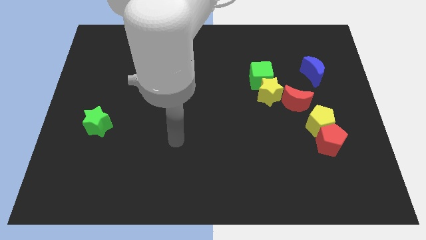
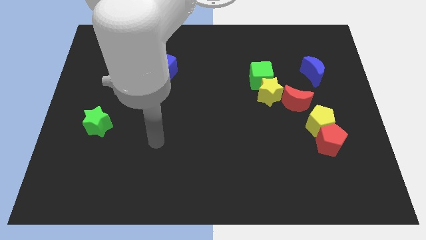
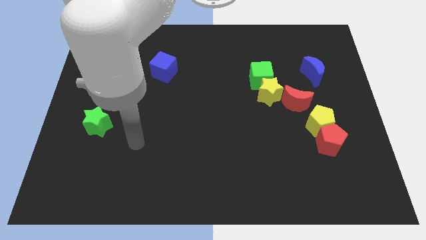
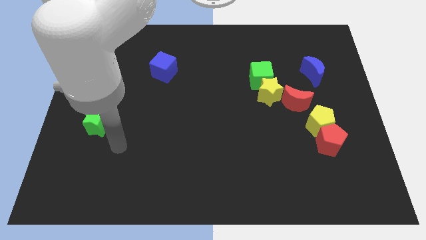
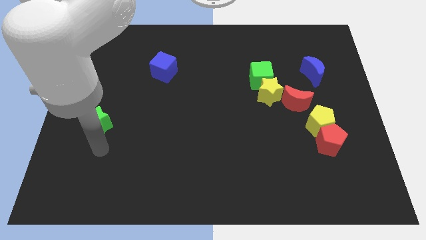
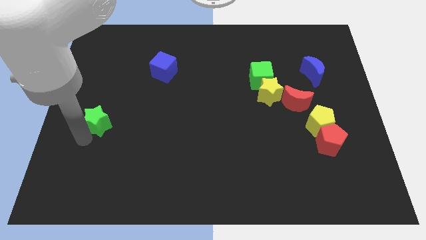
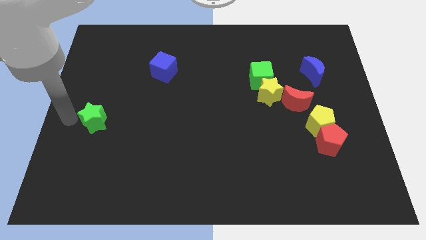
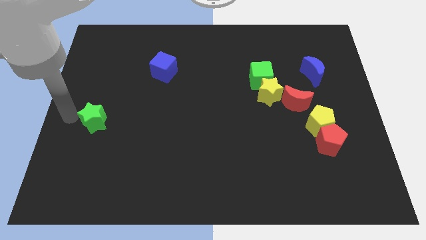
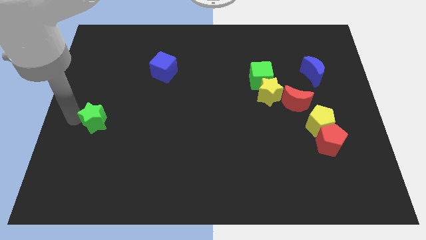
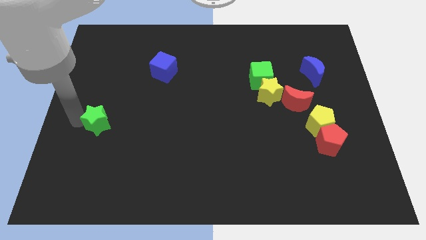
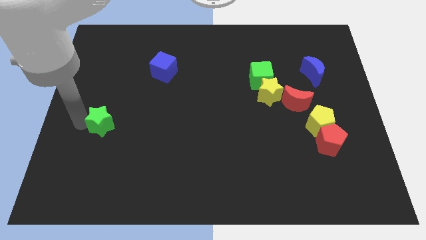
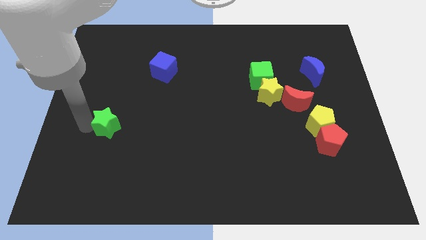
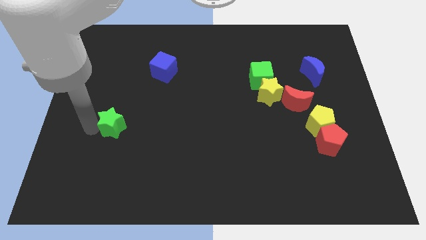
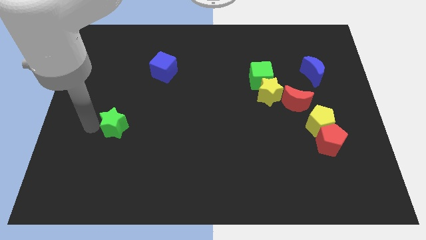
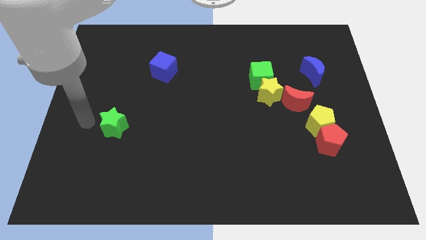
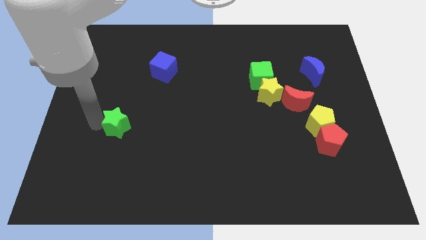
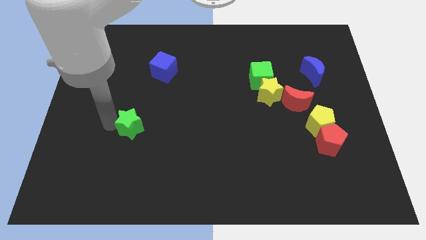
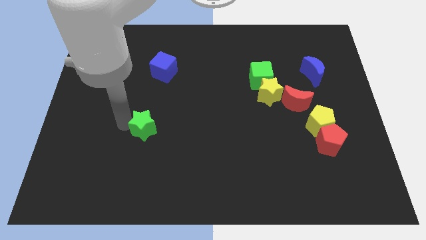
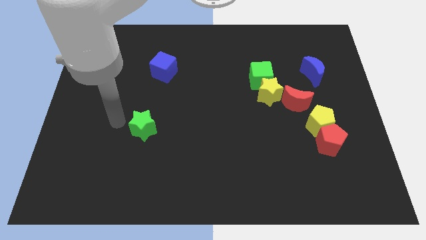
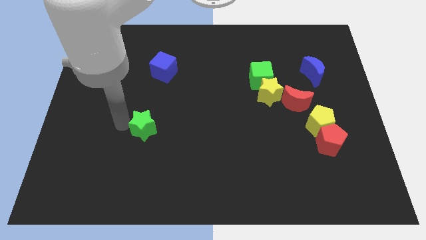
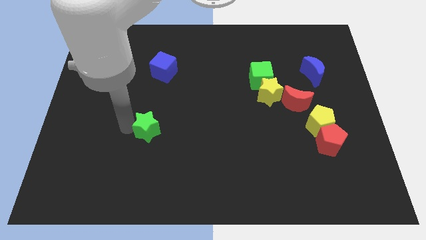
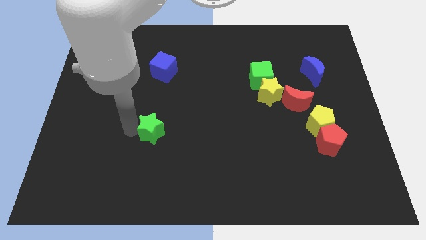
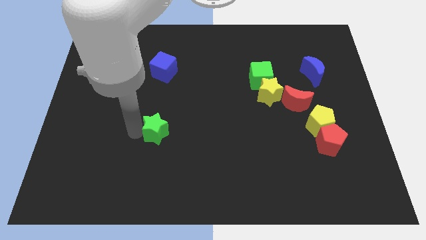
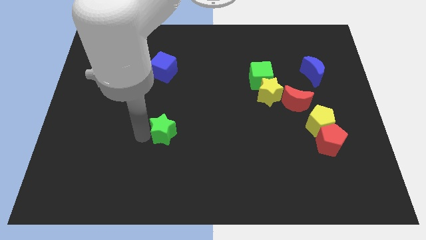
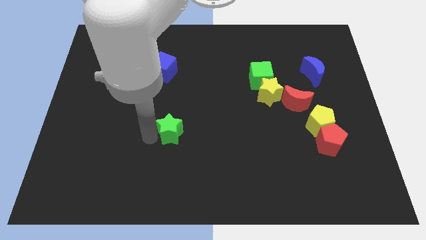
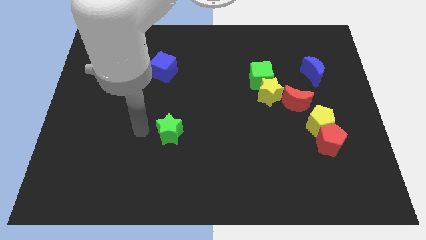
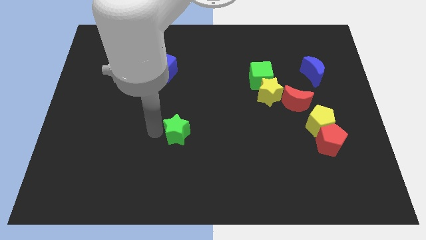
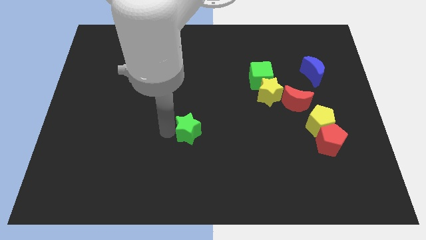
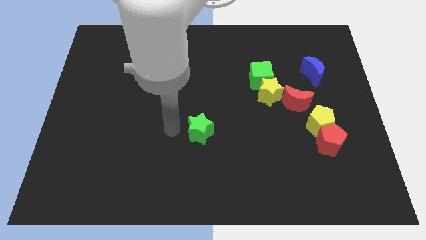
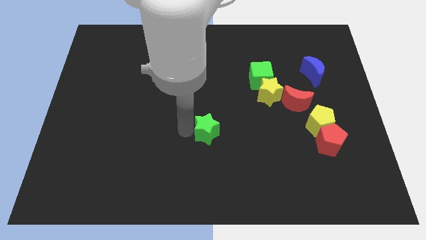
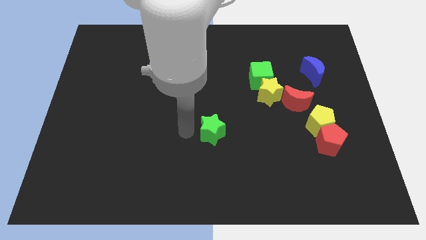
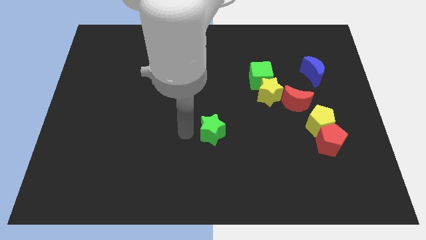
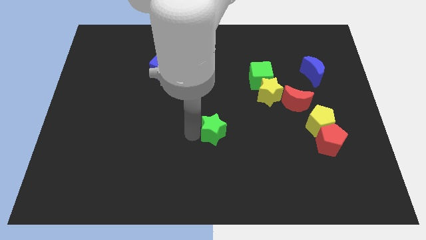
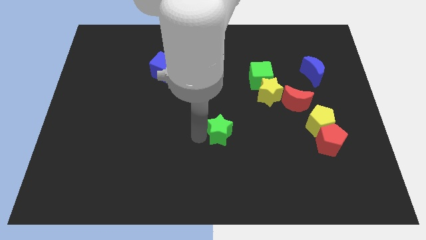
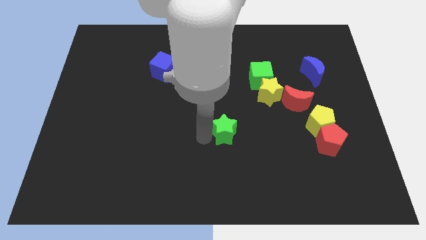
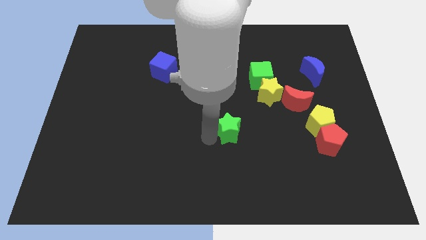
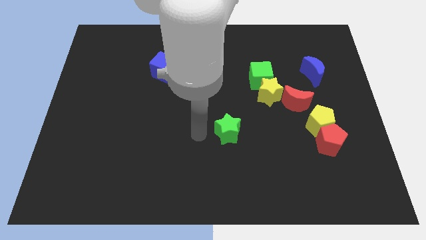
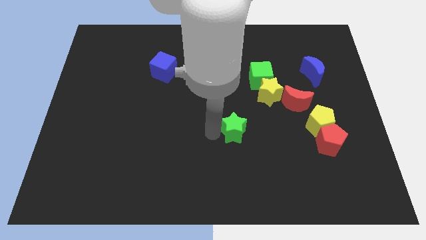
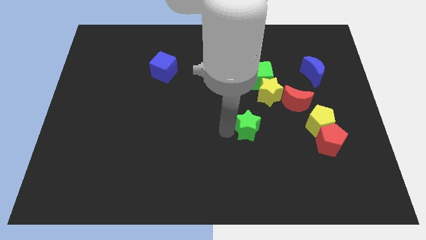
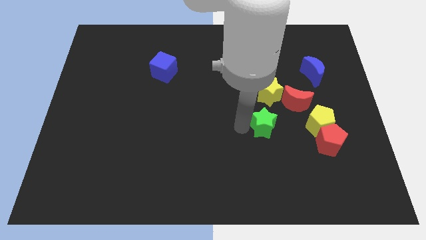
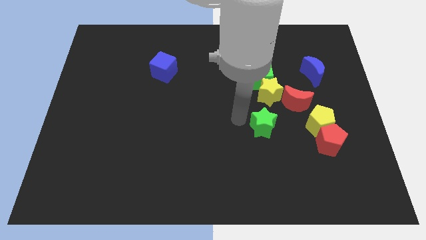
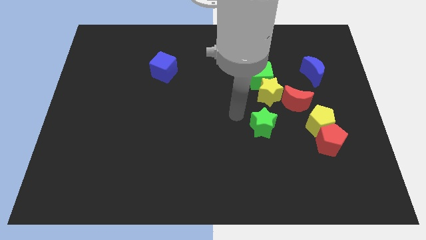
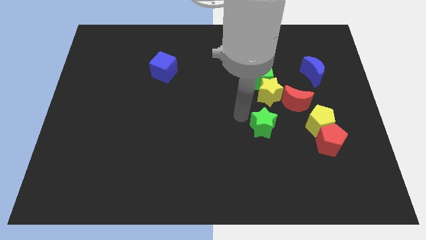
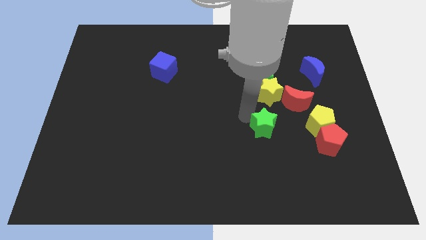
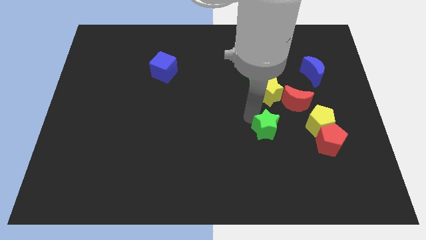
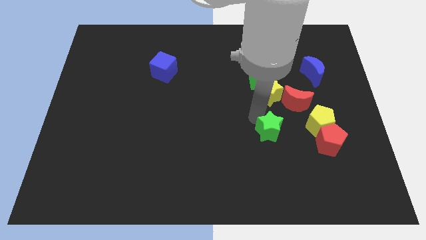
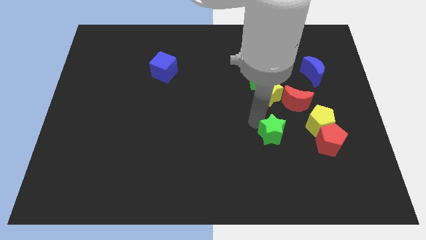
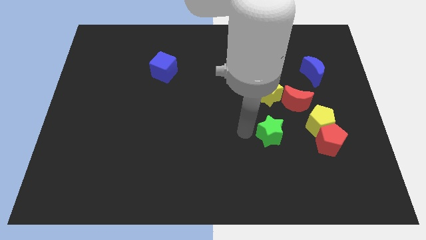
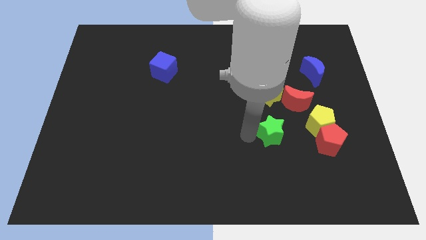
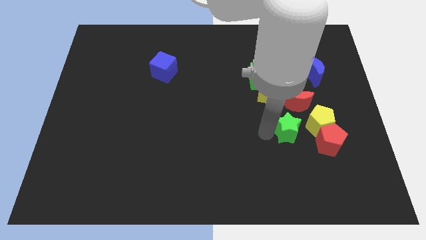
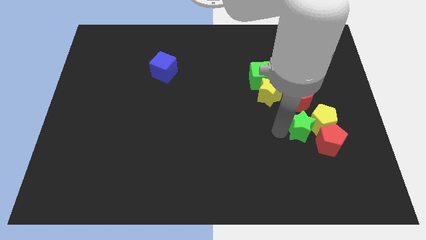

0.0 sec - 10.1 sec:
slide the green star to the yellow pentagon

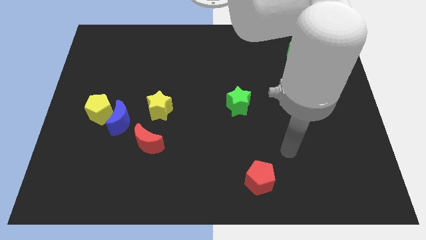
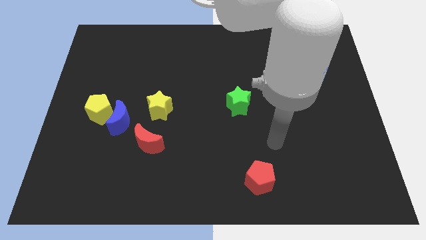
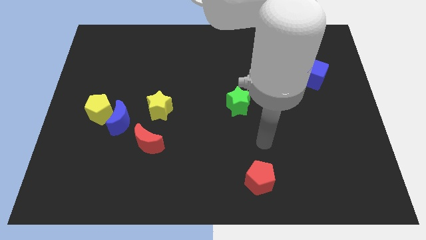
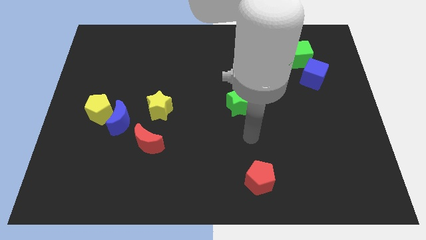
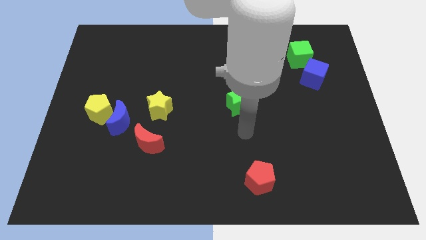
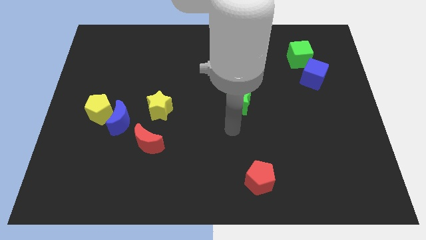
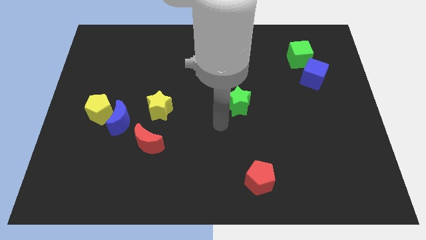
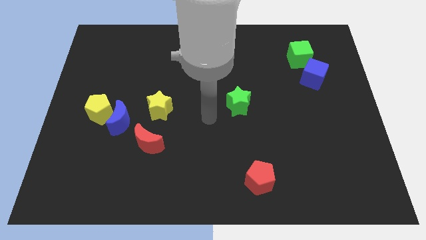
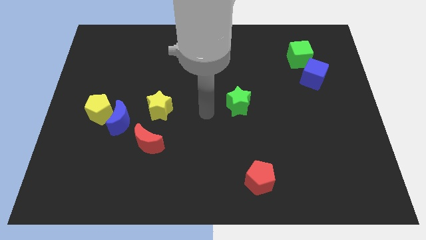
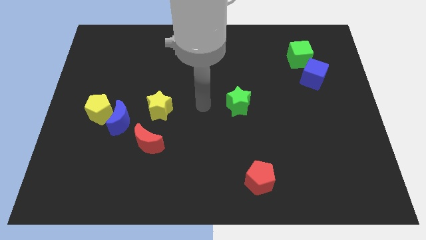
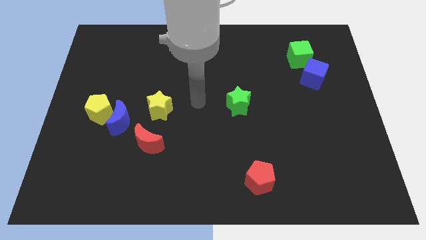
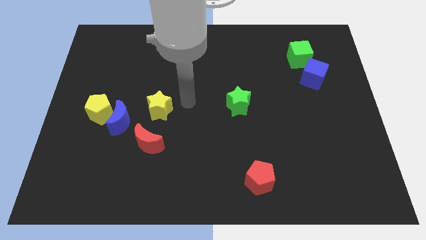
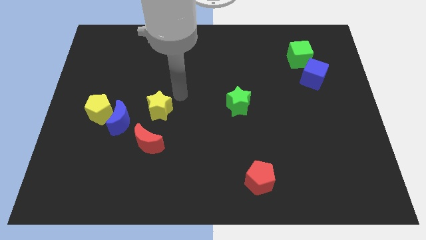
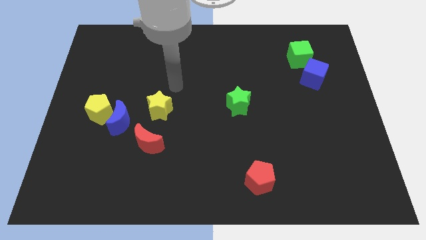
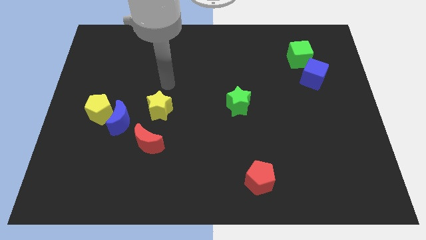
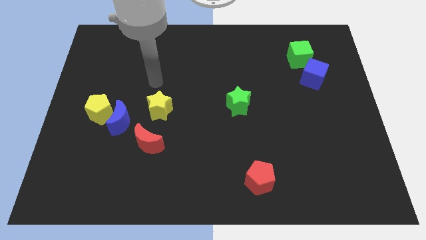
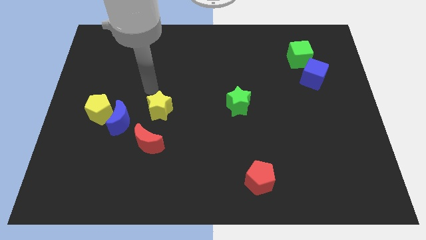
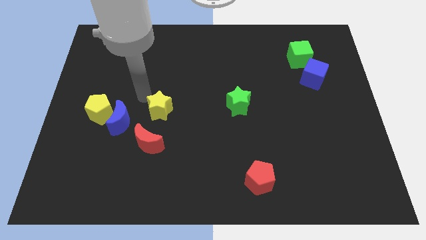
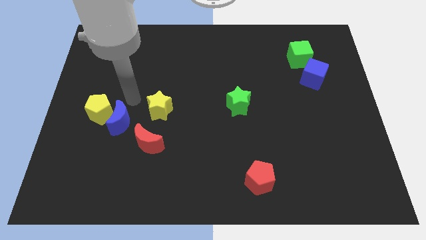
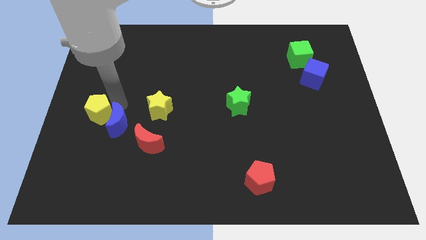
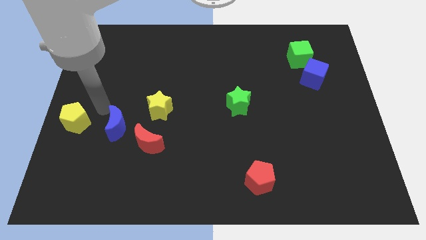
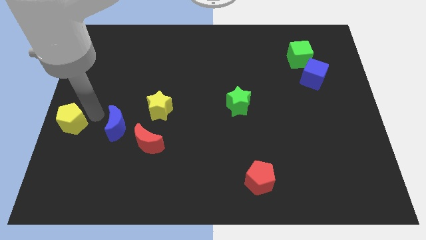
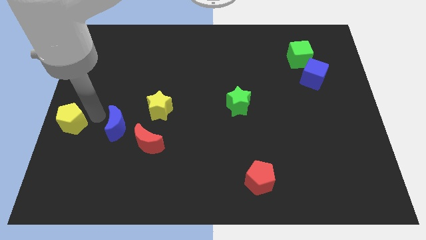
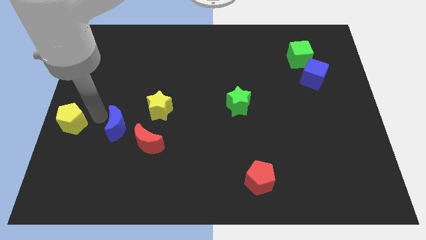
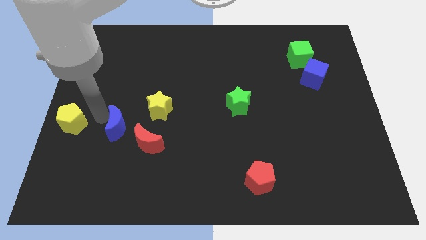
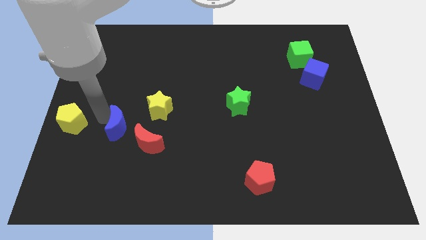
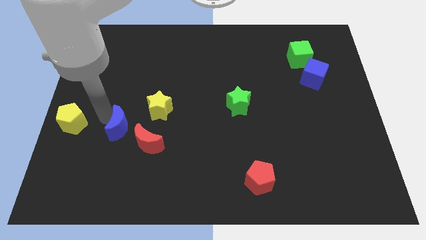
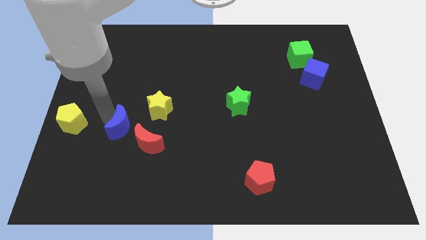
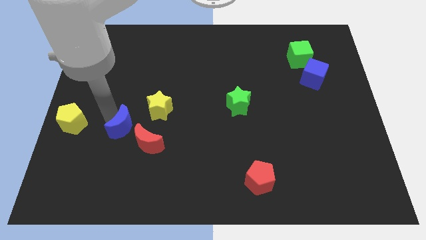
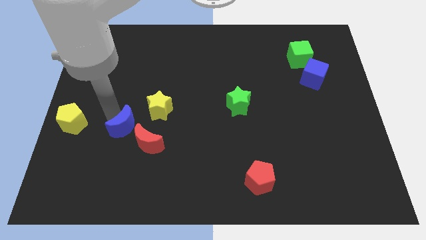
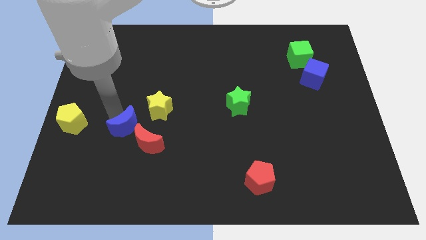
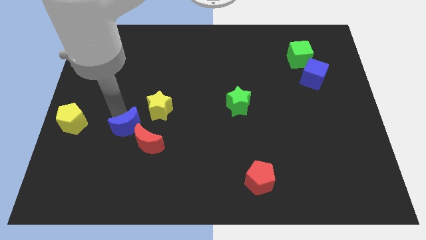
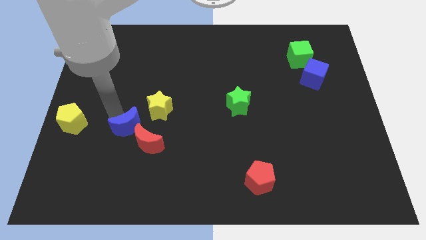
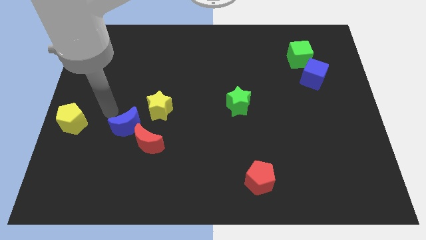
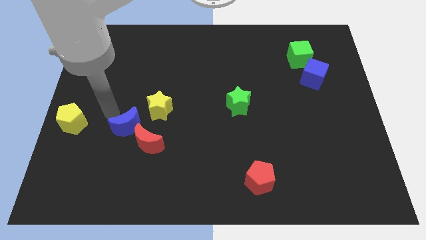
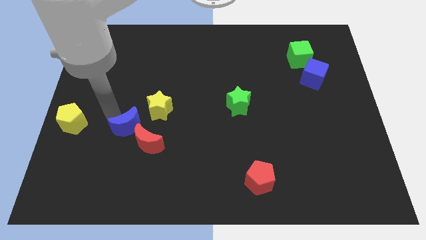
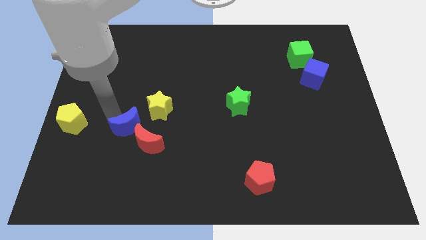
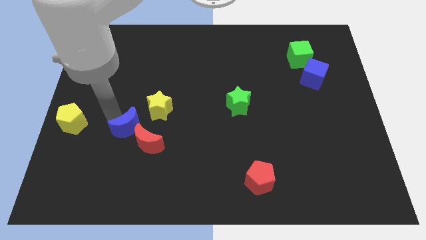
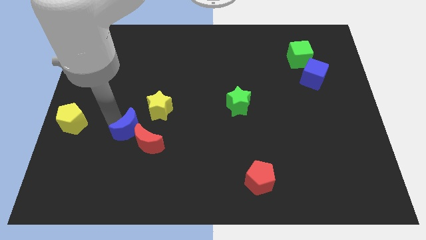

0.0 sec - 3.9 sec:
push the blue moon next to the red moon
